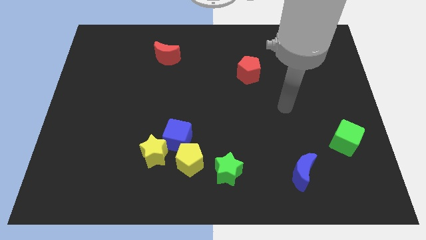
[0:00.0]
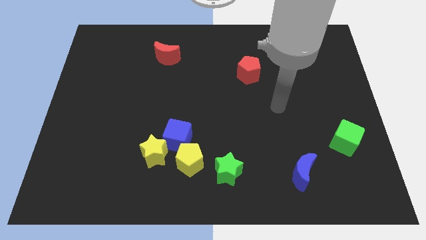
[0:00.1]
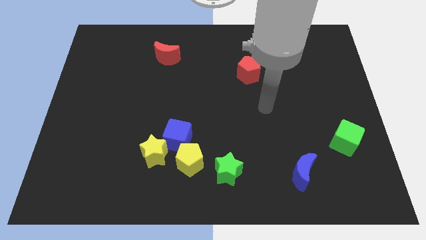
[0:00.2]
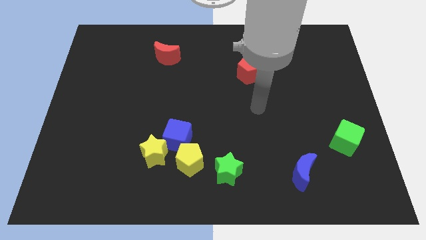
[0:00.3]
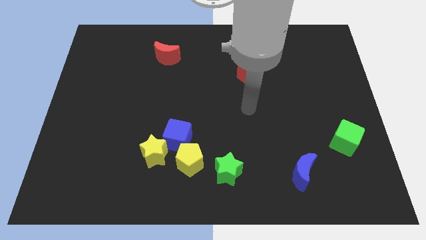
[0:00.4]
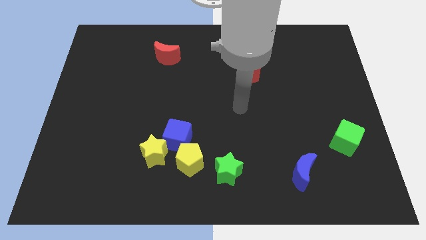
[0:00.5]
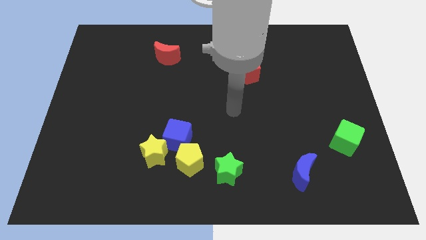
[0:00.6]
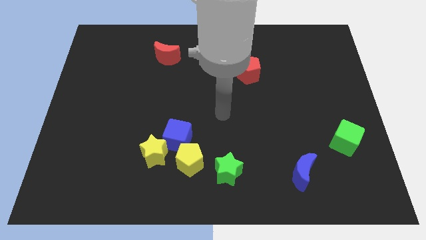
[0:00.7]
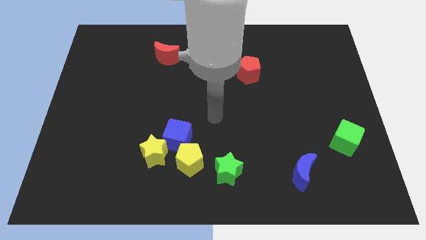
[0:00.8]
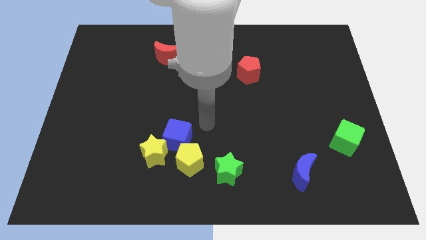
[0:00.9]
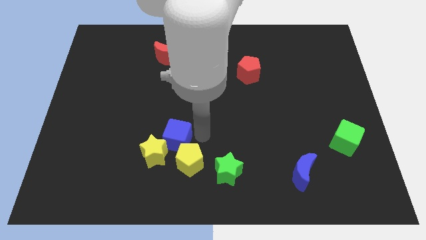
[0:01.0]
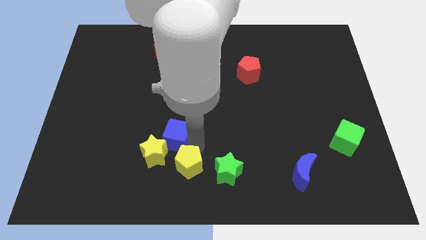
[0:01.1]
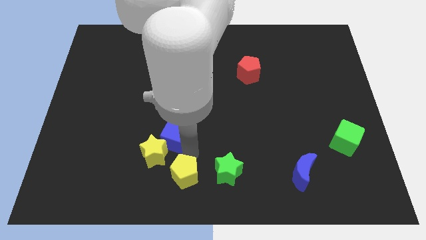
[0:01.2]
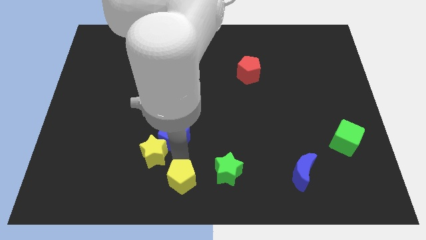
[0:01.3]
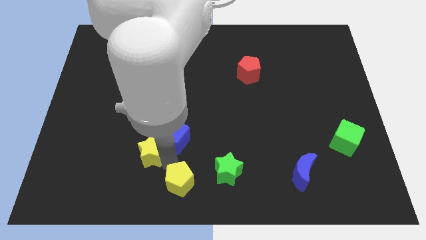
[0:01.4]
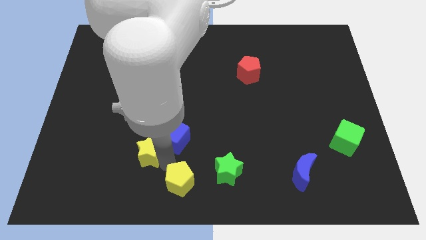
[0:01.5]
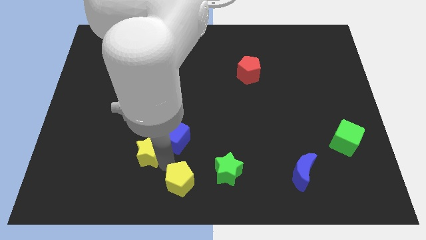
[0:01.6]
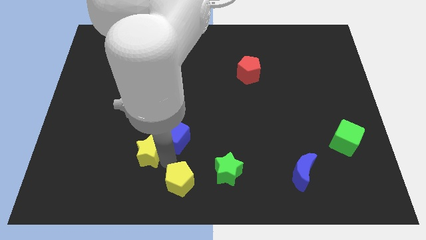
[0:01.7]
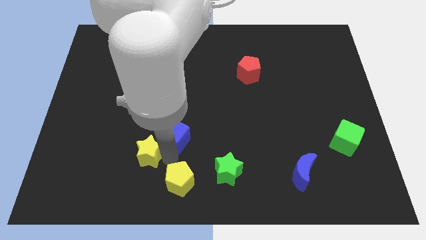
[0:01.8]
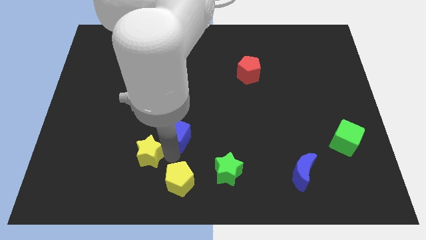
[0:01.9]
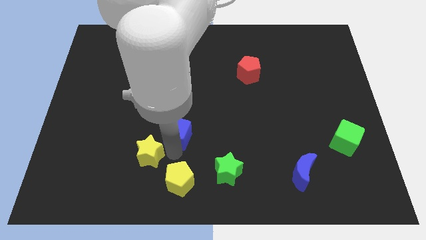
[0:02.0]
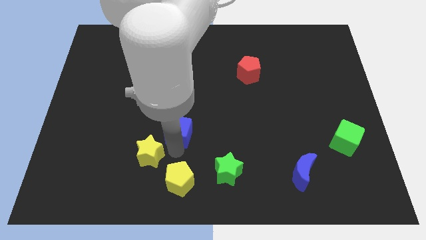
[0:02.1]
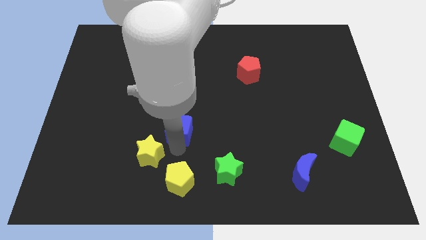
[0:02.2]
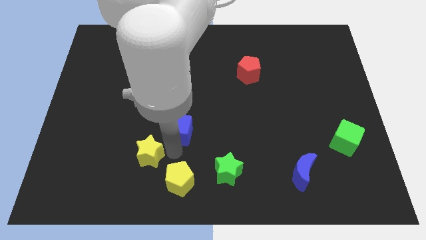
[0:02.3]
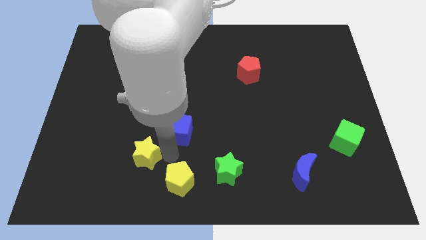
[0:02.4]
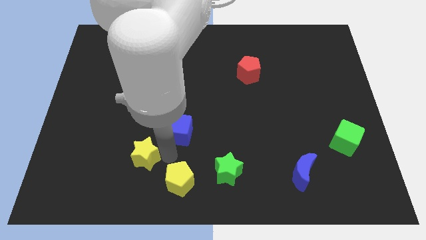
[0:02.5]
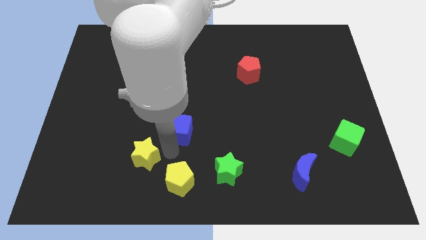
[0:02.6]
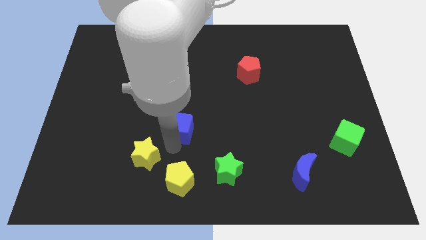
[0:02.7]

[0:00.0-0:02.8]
separate the blue cube from the yellow star and yellow pentagon

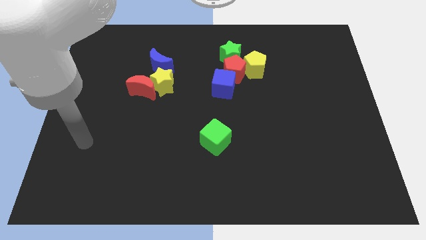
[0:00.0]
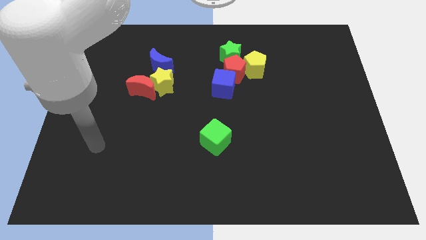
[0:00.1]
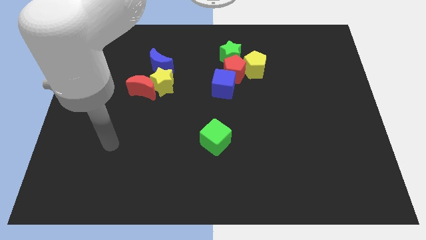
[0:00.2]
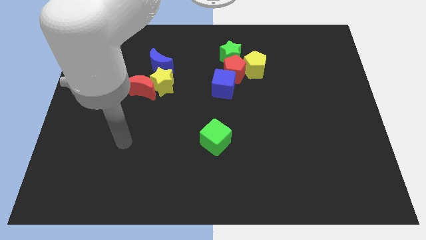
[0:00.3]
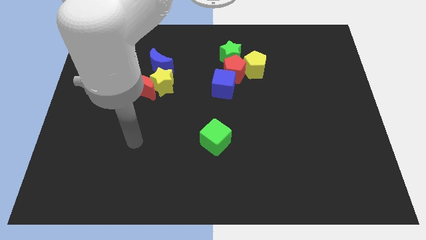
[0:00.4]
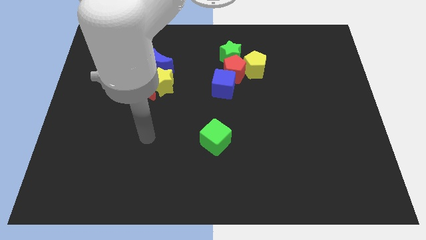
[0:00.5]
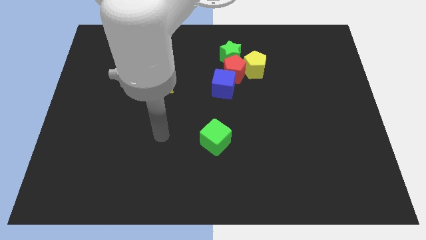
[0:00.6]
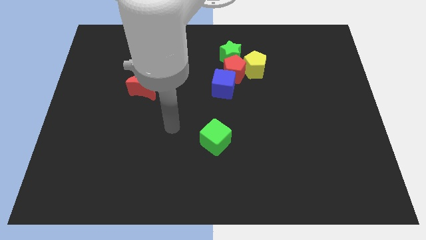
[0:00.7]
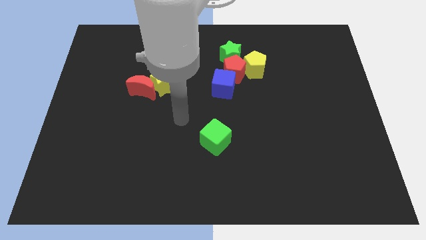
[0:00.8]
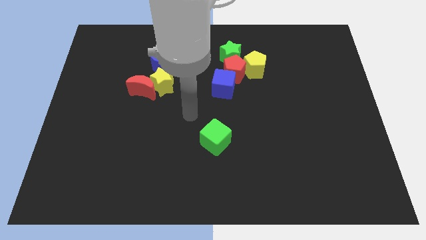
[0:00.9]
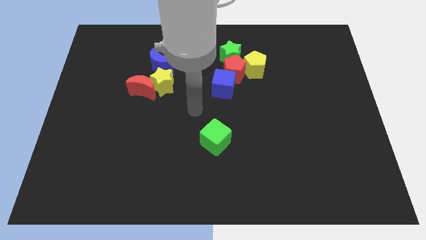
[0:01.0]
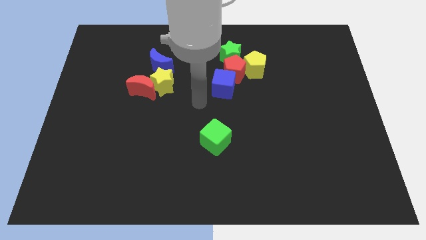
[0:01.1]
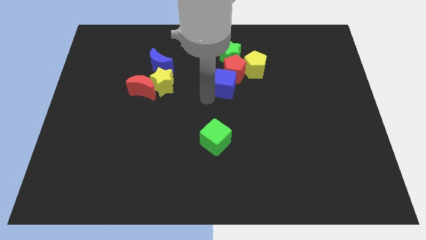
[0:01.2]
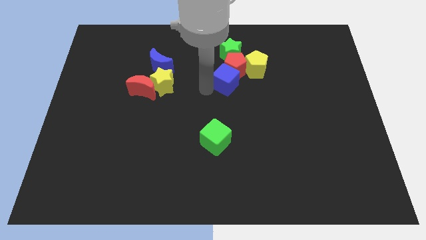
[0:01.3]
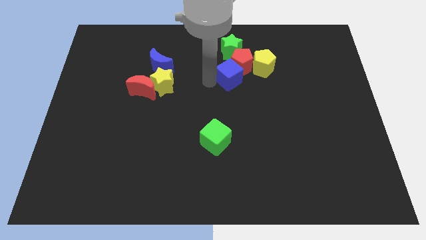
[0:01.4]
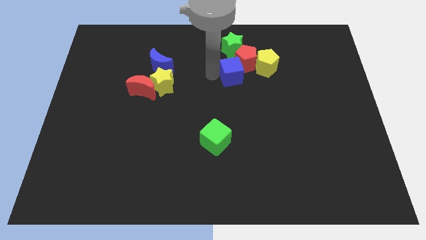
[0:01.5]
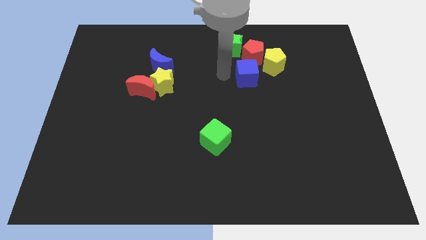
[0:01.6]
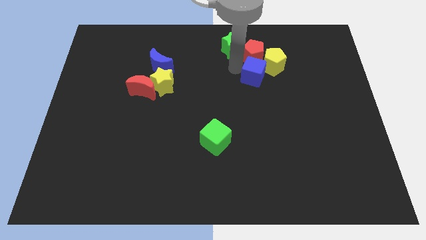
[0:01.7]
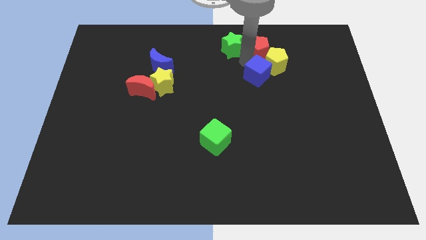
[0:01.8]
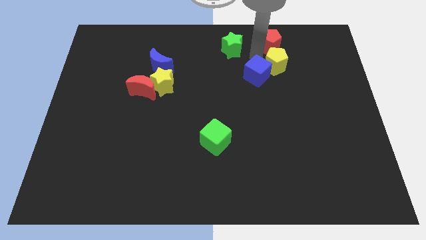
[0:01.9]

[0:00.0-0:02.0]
pull the blue cube apart from the red pentagon

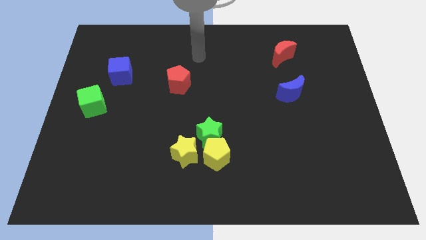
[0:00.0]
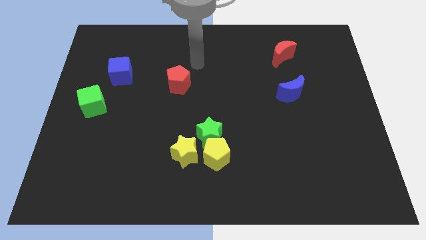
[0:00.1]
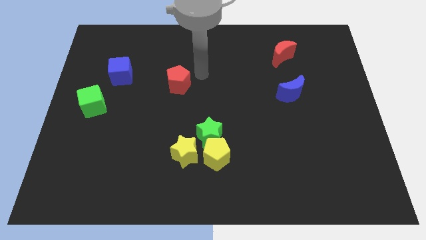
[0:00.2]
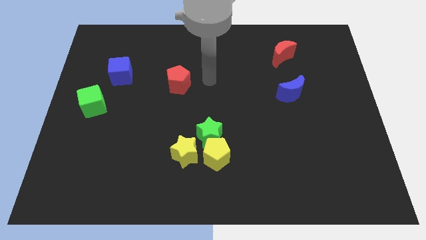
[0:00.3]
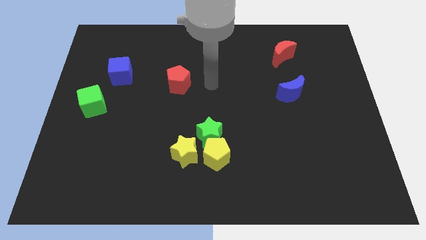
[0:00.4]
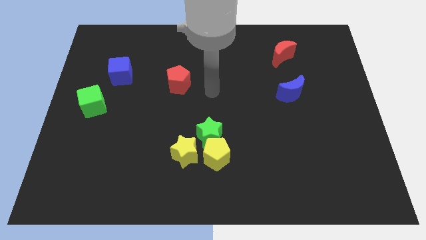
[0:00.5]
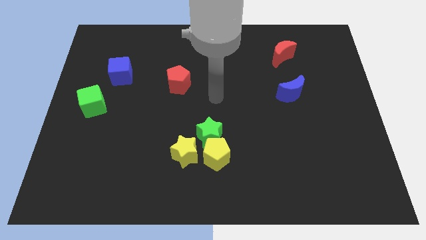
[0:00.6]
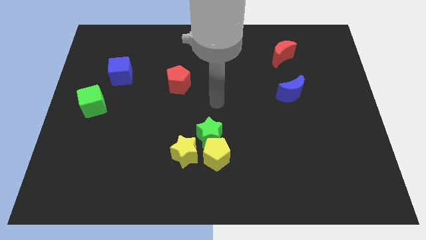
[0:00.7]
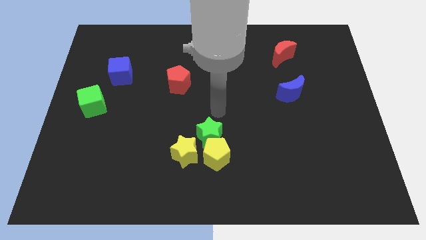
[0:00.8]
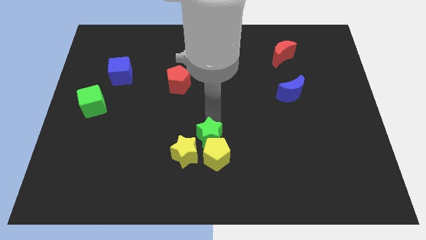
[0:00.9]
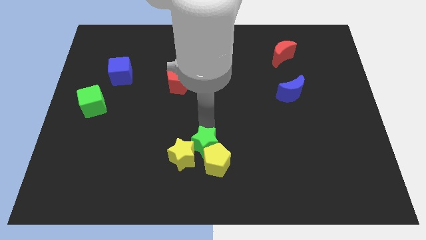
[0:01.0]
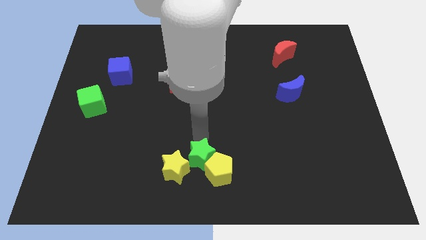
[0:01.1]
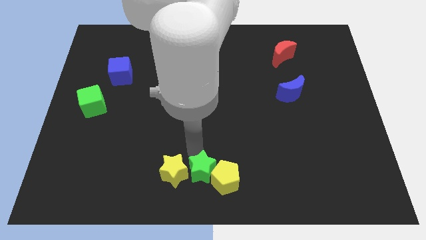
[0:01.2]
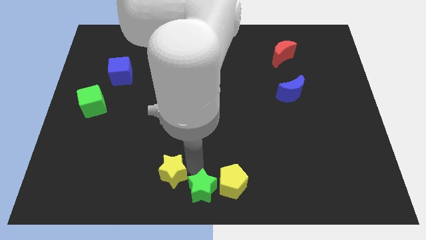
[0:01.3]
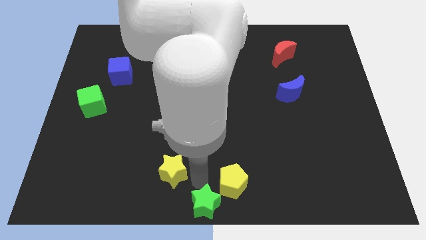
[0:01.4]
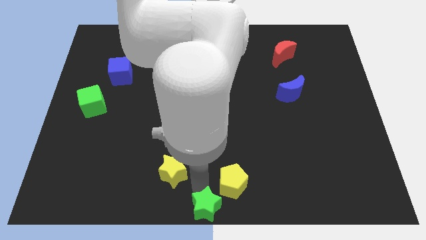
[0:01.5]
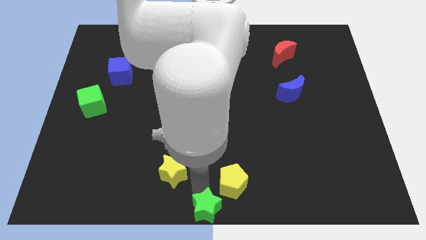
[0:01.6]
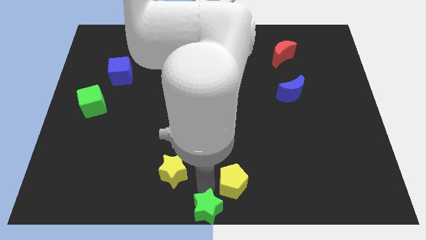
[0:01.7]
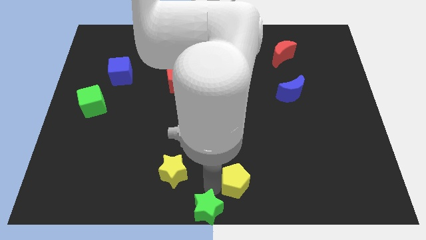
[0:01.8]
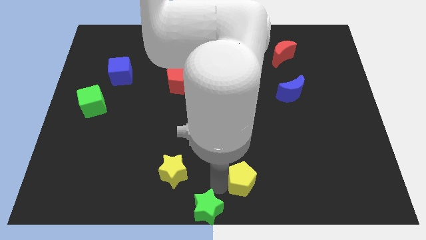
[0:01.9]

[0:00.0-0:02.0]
separate the yellow pentagon from the green star and yellow star

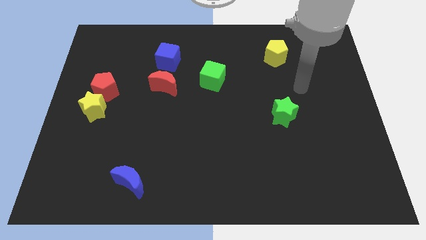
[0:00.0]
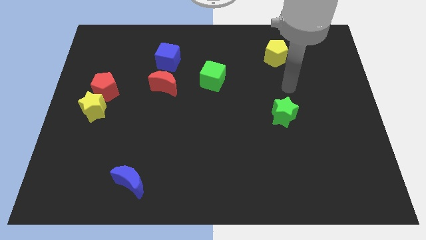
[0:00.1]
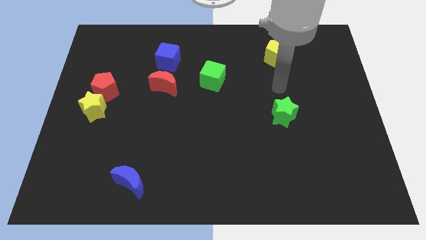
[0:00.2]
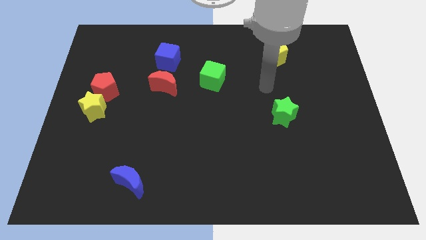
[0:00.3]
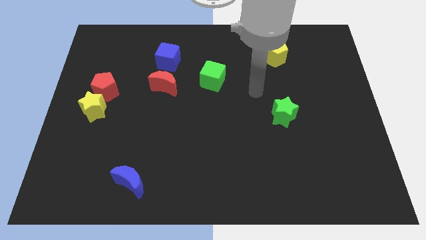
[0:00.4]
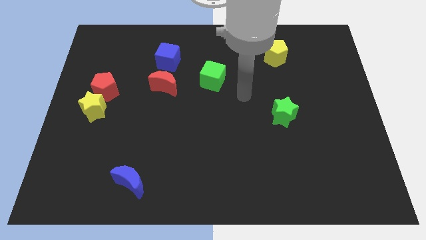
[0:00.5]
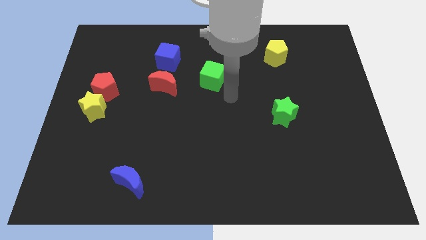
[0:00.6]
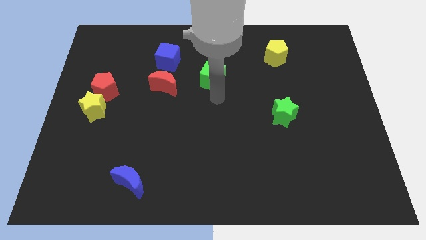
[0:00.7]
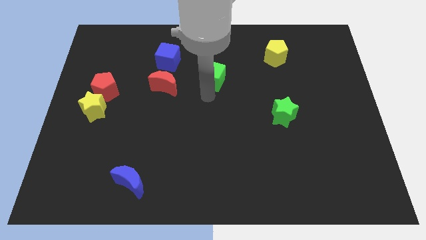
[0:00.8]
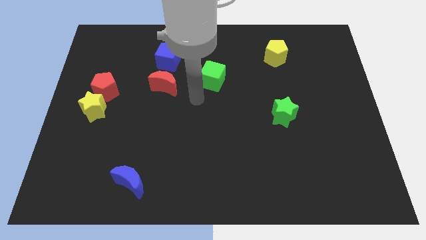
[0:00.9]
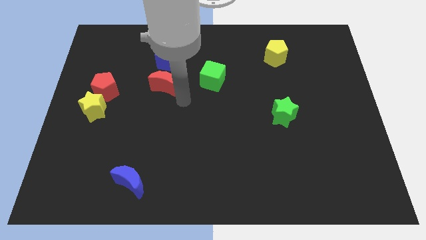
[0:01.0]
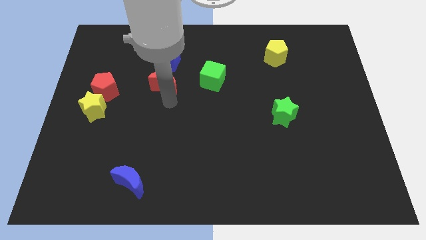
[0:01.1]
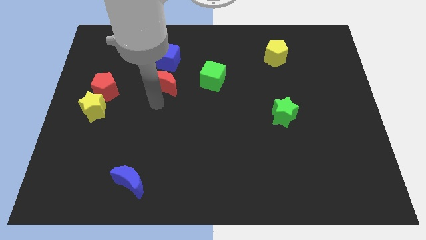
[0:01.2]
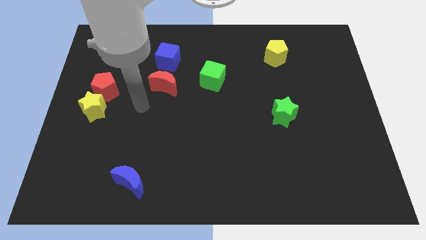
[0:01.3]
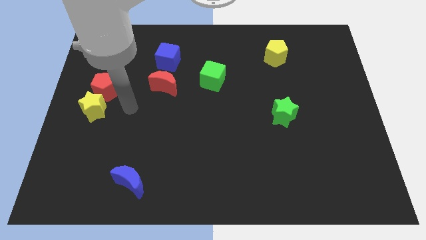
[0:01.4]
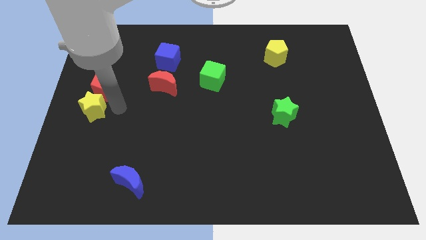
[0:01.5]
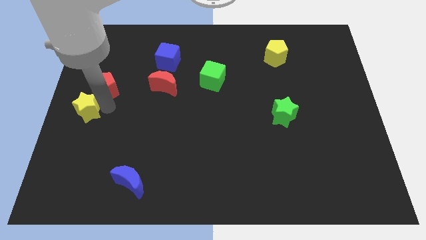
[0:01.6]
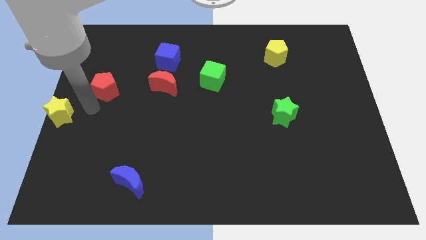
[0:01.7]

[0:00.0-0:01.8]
separate the red pentagon from the yellow star

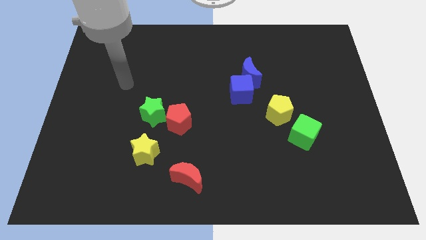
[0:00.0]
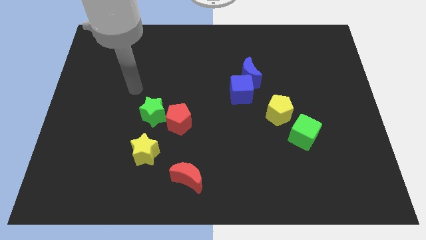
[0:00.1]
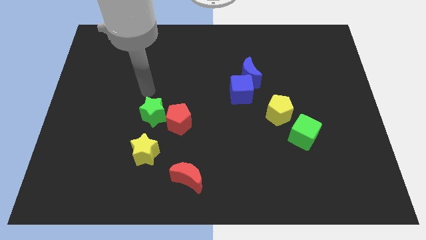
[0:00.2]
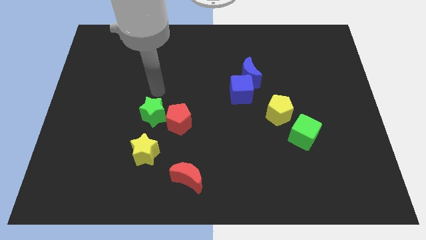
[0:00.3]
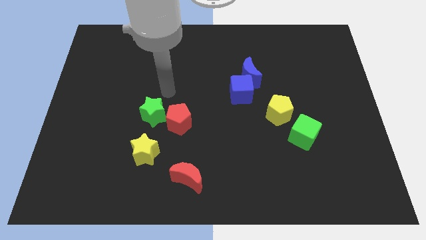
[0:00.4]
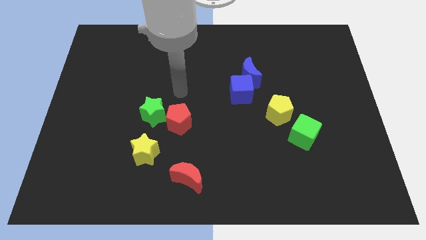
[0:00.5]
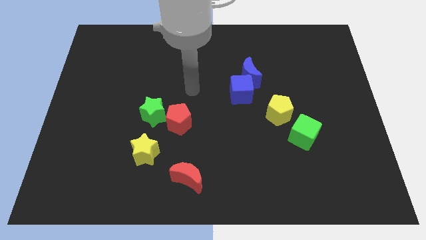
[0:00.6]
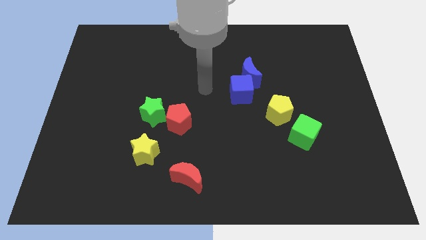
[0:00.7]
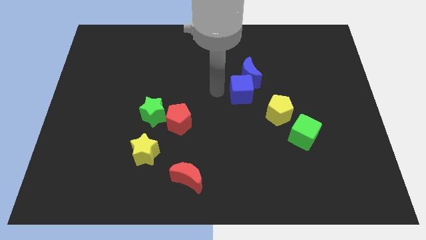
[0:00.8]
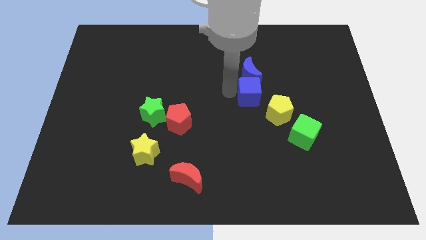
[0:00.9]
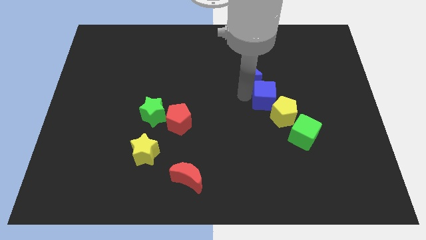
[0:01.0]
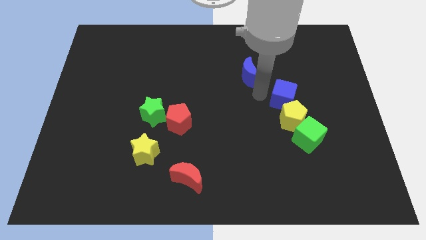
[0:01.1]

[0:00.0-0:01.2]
separate the blue moon from the blue cube
